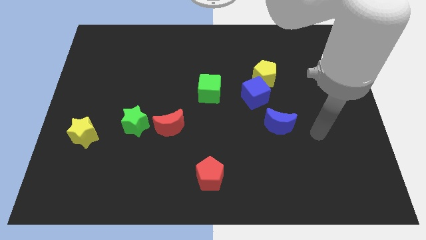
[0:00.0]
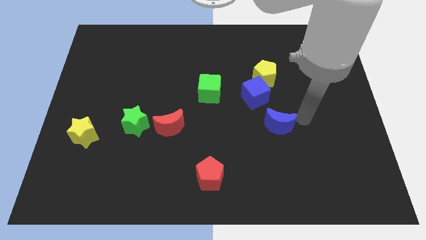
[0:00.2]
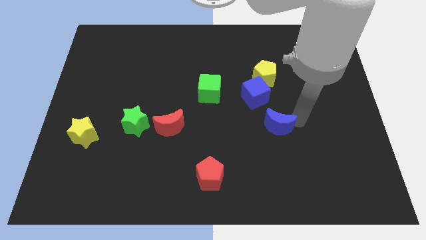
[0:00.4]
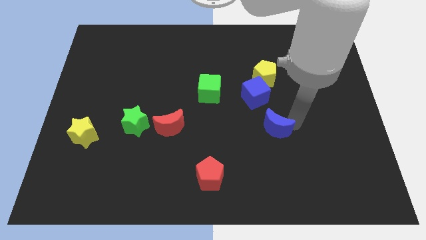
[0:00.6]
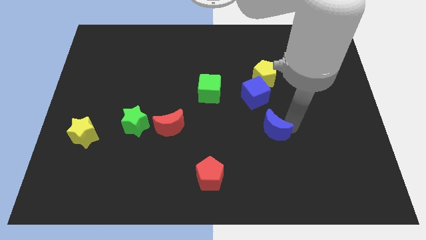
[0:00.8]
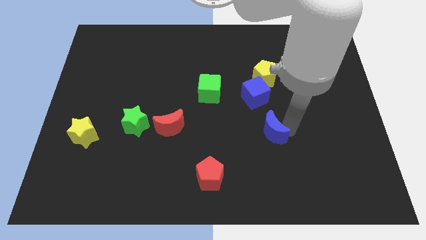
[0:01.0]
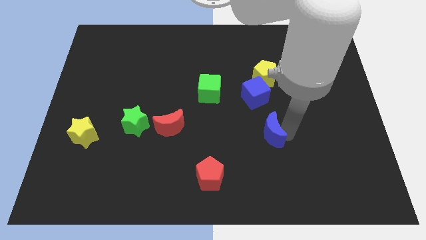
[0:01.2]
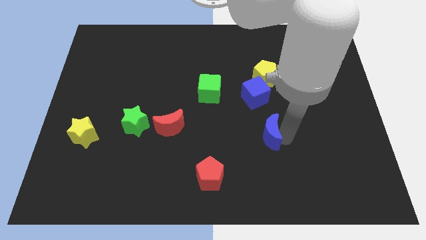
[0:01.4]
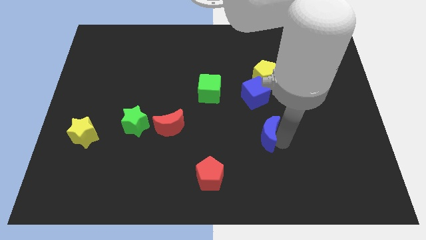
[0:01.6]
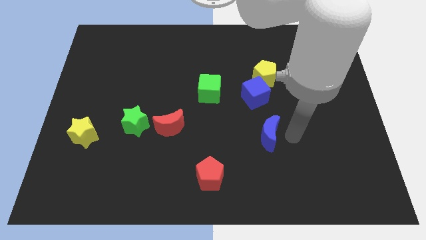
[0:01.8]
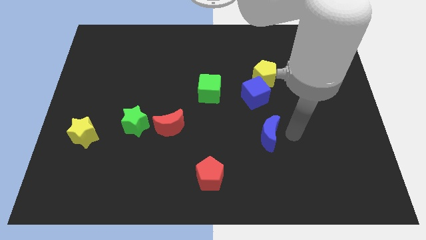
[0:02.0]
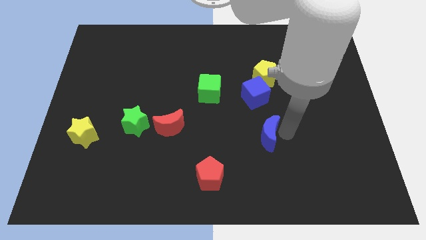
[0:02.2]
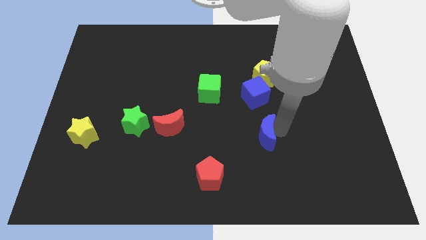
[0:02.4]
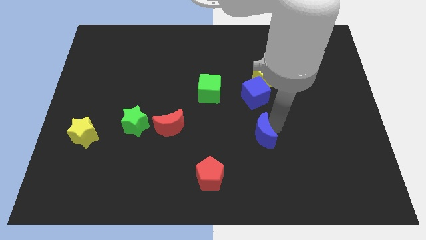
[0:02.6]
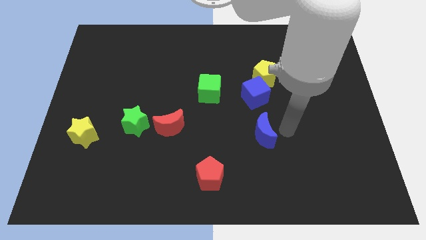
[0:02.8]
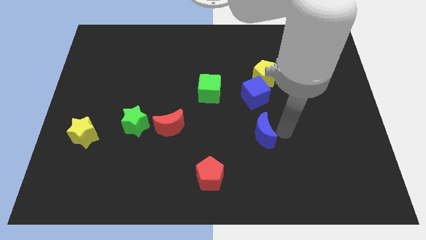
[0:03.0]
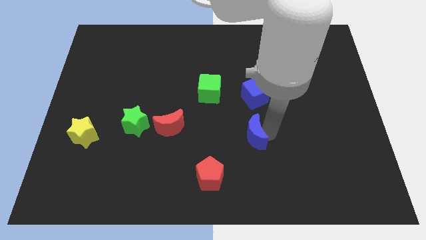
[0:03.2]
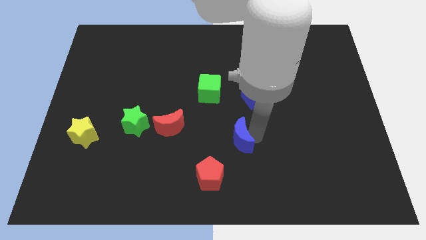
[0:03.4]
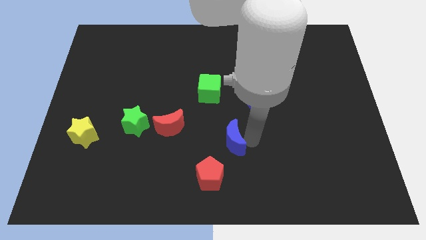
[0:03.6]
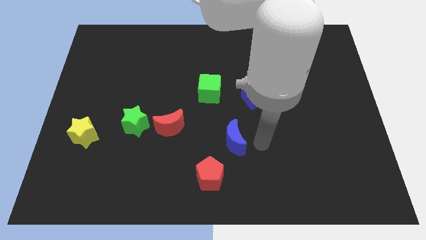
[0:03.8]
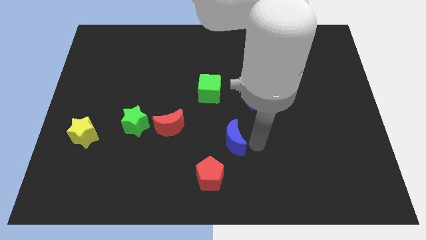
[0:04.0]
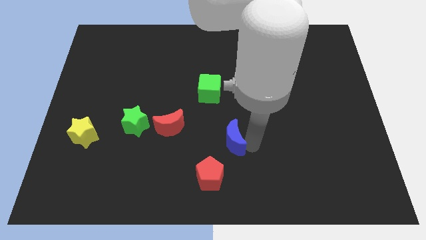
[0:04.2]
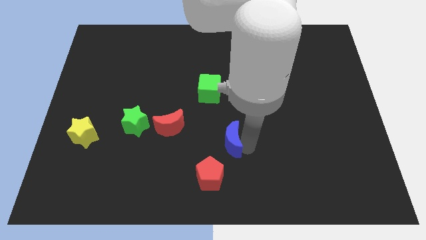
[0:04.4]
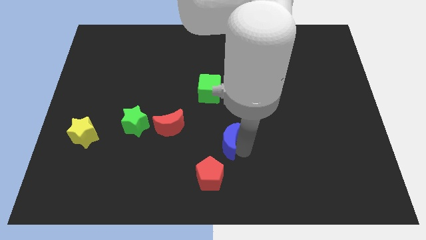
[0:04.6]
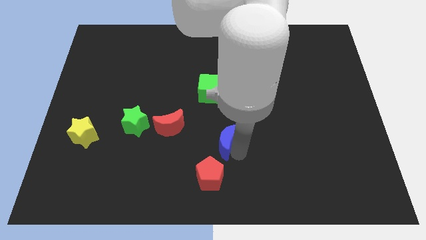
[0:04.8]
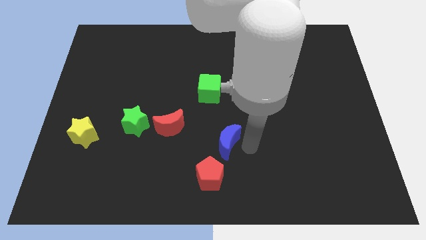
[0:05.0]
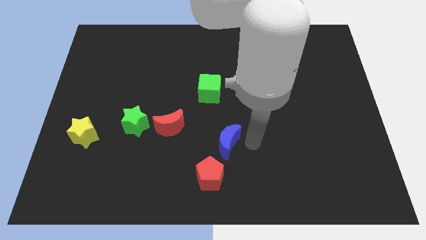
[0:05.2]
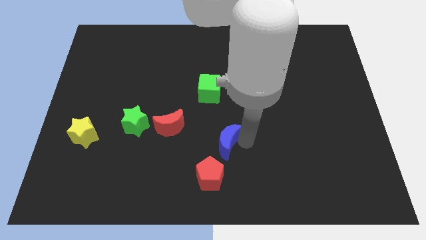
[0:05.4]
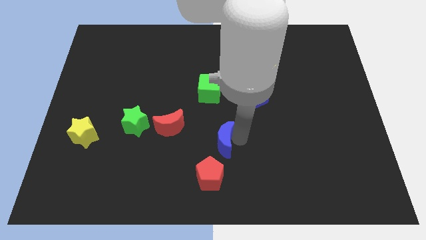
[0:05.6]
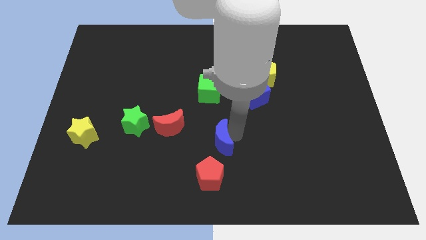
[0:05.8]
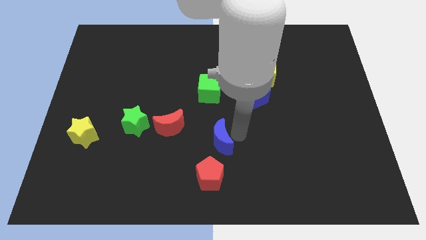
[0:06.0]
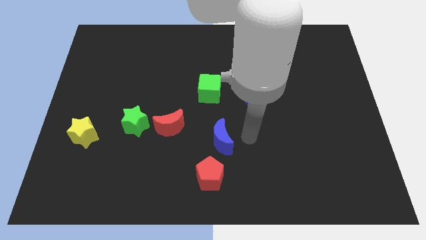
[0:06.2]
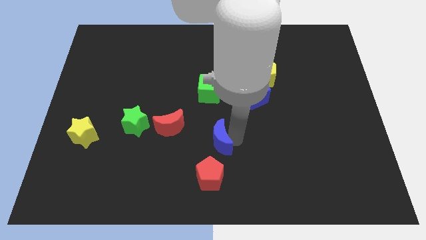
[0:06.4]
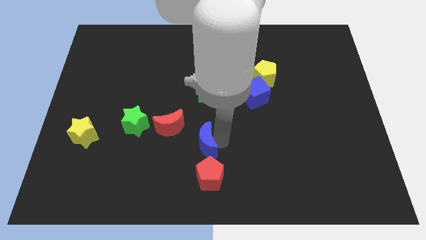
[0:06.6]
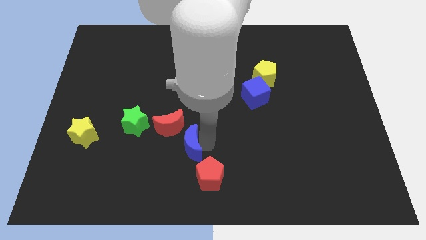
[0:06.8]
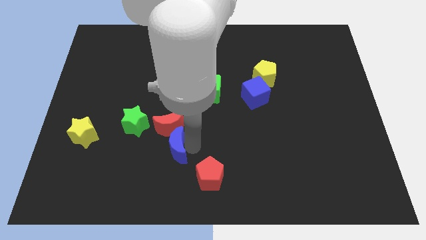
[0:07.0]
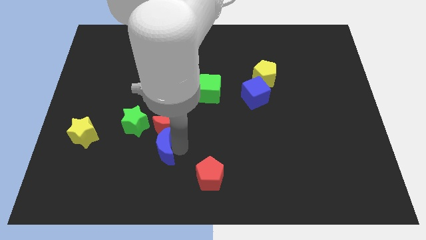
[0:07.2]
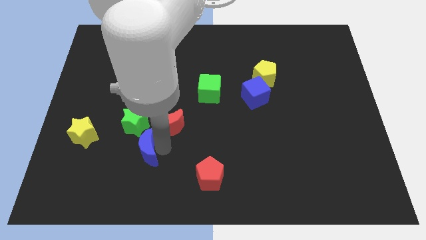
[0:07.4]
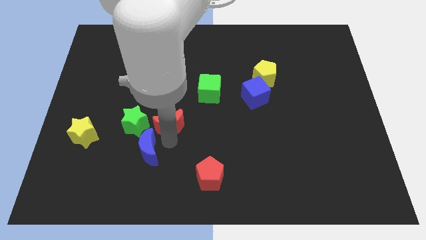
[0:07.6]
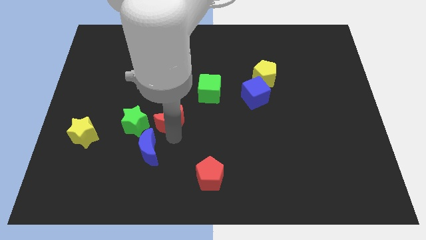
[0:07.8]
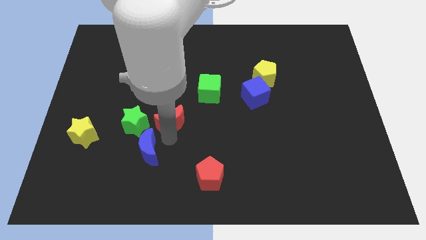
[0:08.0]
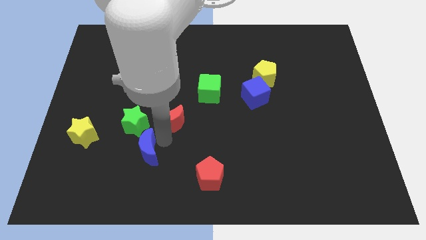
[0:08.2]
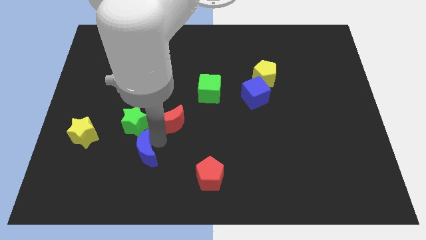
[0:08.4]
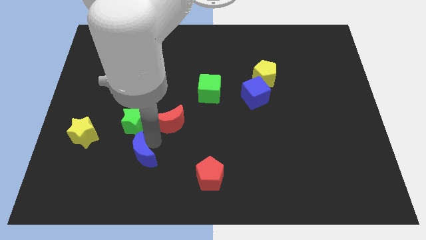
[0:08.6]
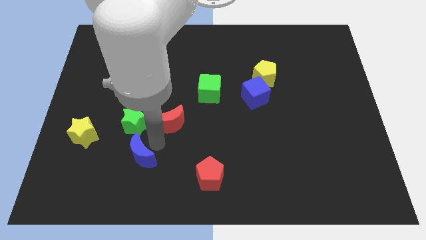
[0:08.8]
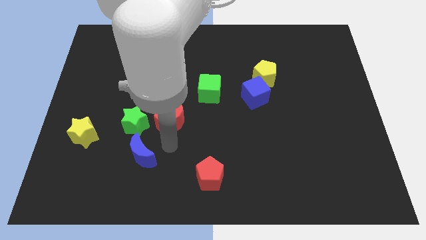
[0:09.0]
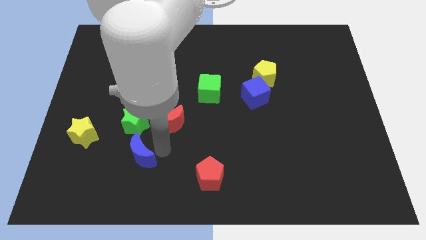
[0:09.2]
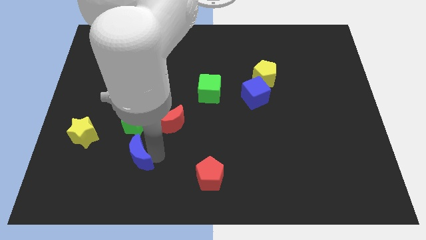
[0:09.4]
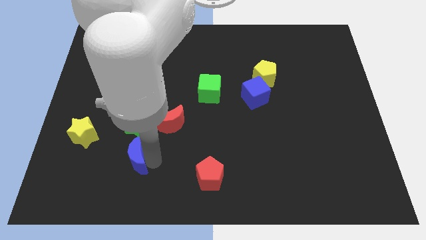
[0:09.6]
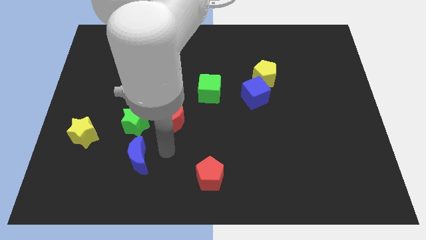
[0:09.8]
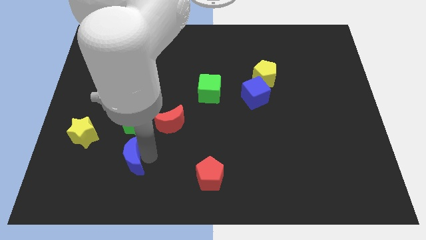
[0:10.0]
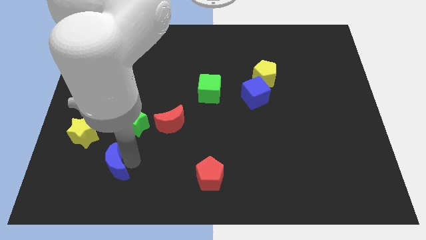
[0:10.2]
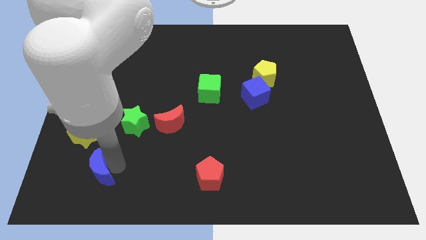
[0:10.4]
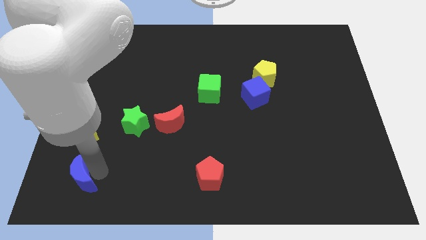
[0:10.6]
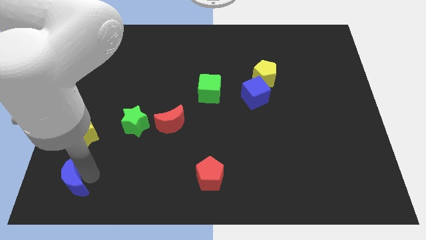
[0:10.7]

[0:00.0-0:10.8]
push the blue moon to the bottom left of the board

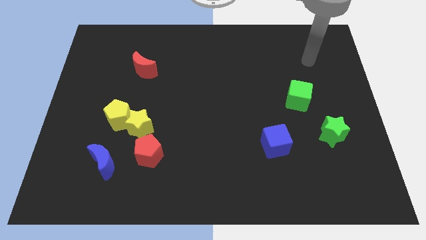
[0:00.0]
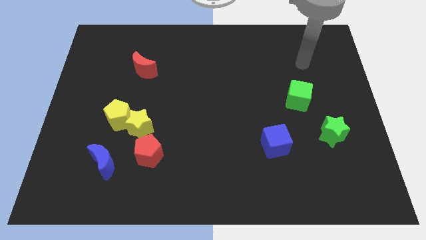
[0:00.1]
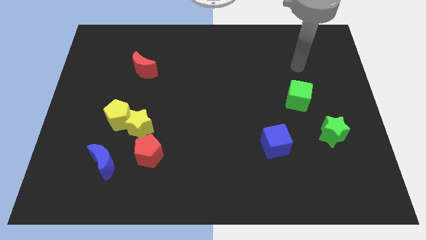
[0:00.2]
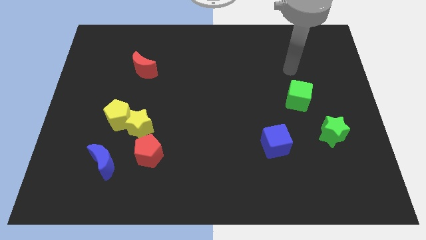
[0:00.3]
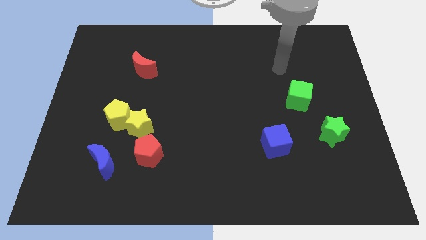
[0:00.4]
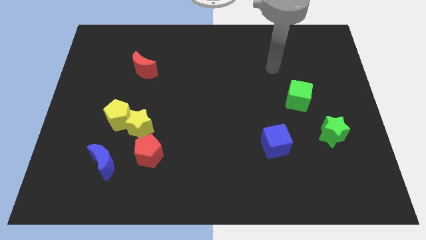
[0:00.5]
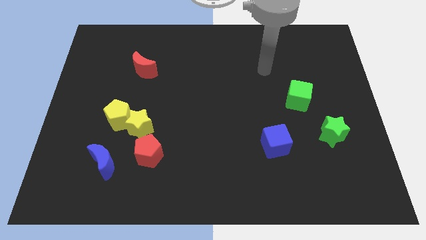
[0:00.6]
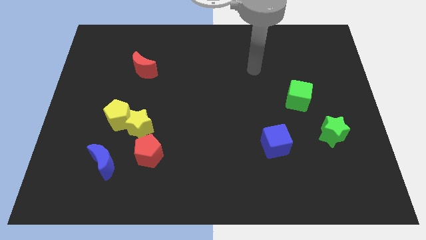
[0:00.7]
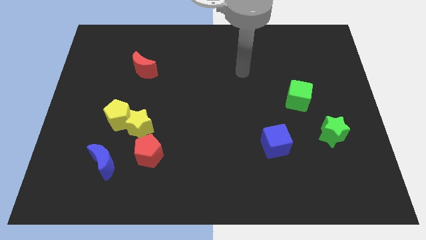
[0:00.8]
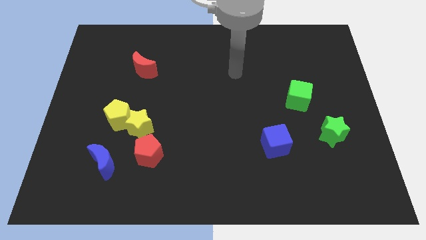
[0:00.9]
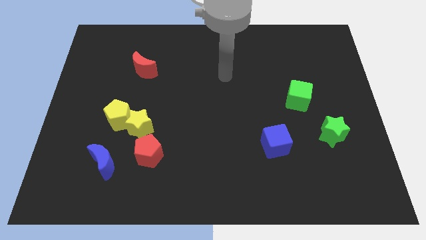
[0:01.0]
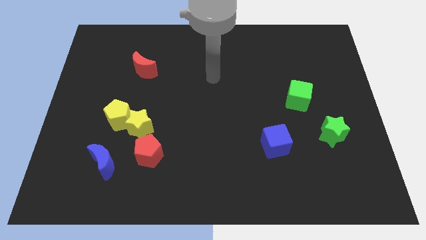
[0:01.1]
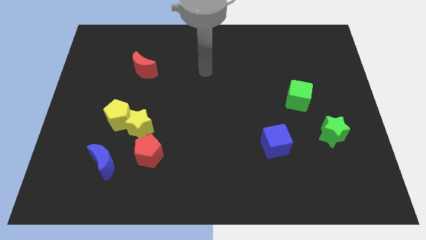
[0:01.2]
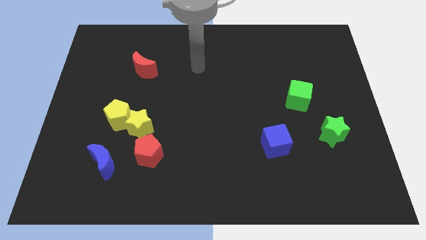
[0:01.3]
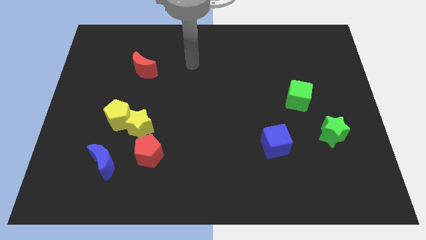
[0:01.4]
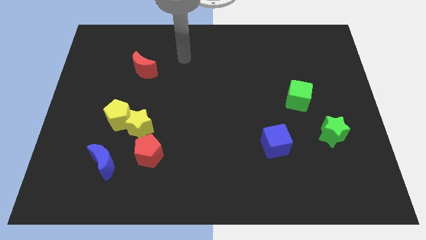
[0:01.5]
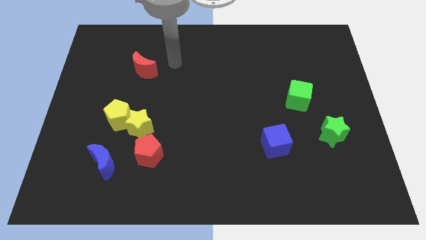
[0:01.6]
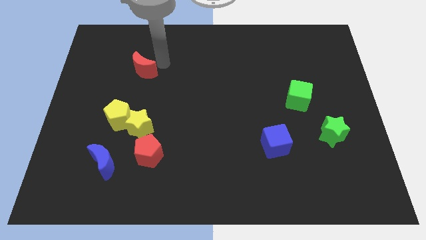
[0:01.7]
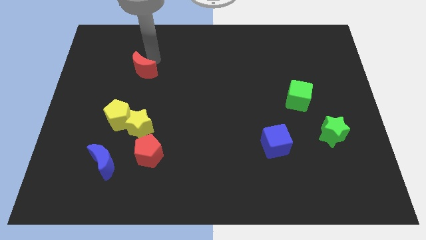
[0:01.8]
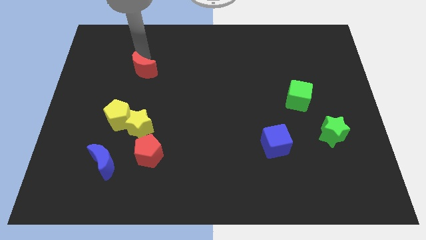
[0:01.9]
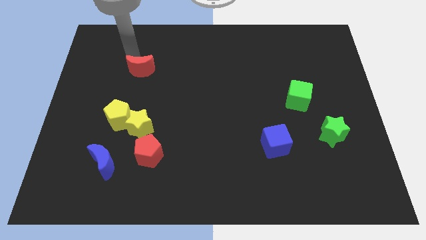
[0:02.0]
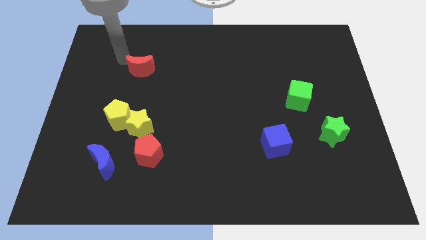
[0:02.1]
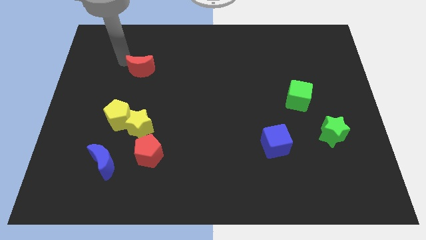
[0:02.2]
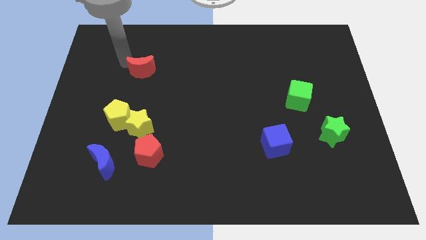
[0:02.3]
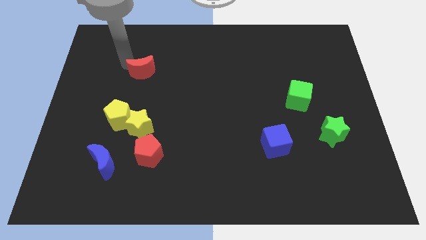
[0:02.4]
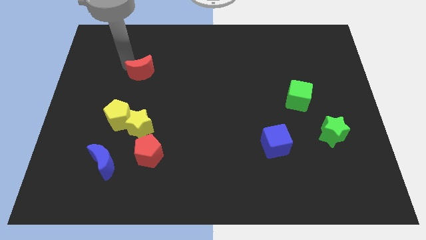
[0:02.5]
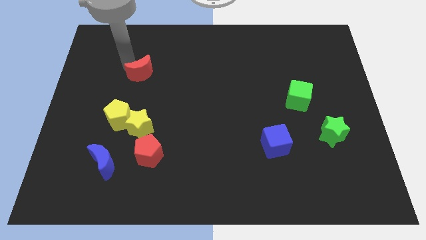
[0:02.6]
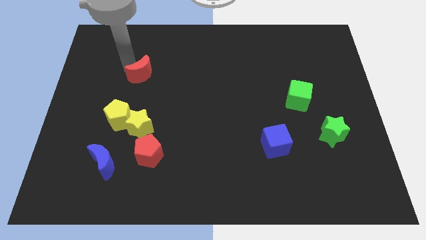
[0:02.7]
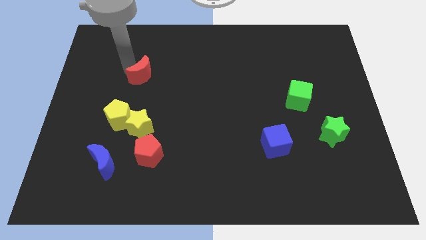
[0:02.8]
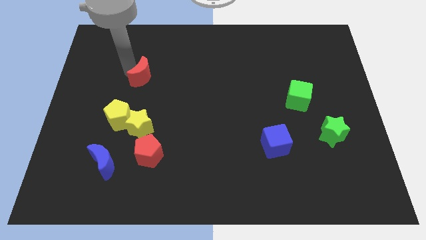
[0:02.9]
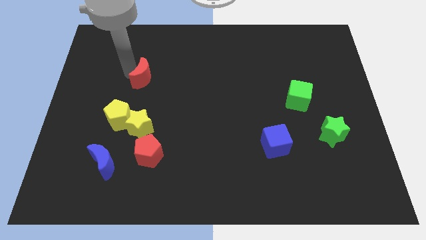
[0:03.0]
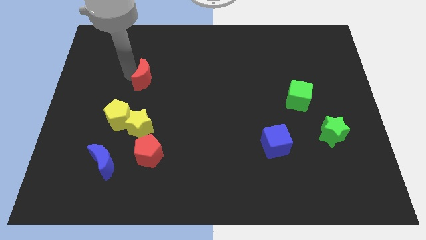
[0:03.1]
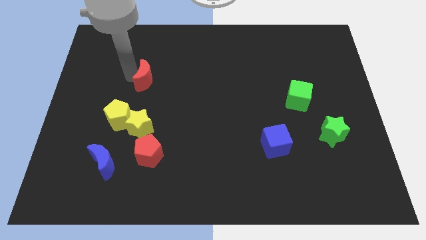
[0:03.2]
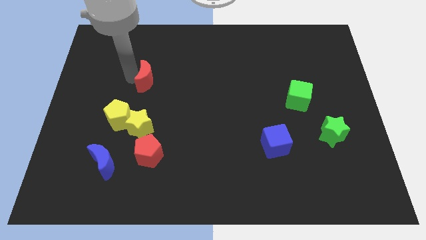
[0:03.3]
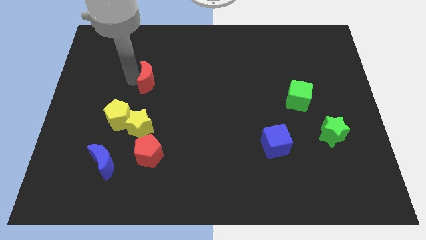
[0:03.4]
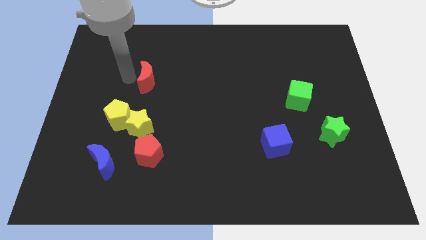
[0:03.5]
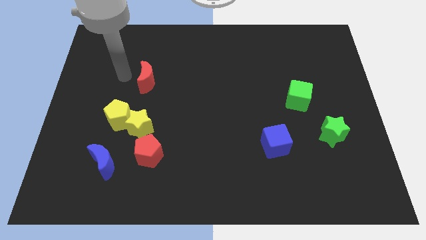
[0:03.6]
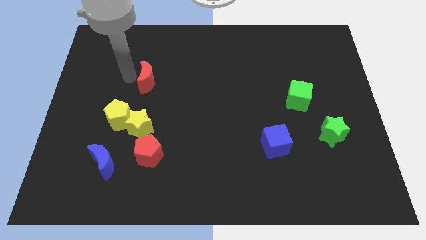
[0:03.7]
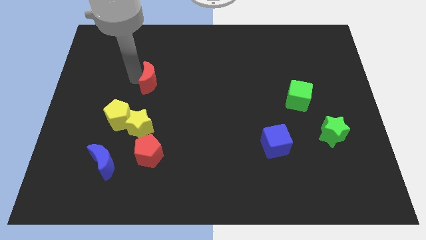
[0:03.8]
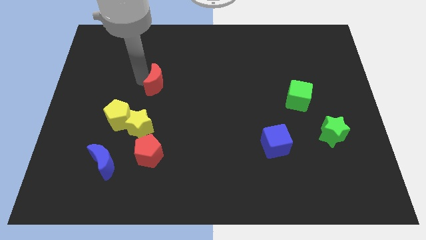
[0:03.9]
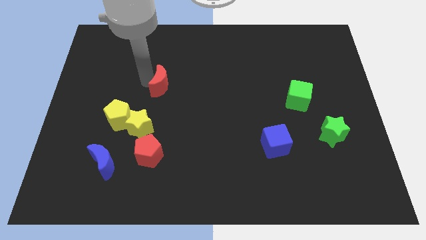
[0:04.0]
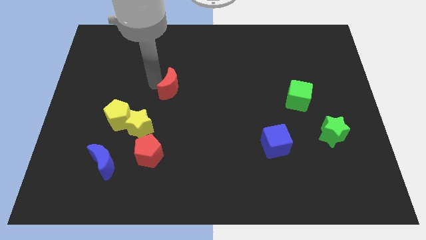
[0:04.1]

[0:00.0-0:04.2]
slide the red moon to the middle of the board
